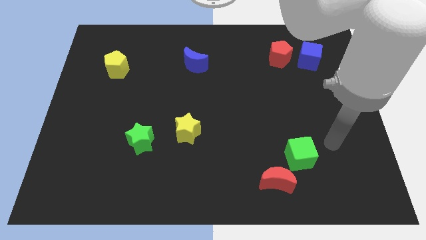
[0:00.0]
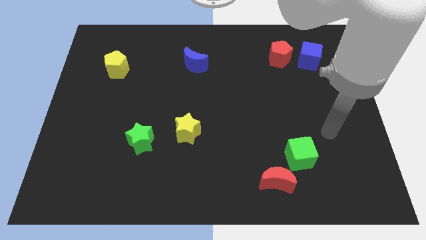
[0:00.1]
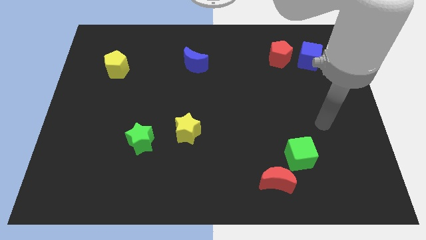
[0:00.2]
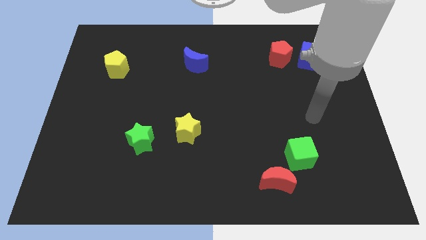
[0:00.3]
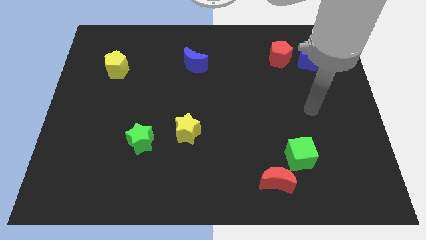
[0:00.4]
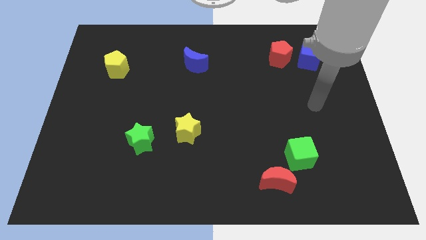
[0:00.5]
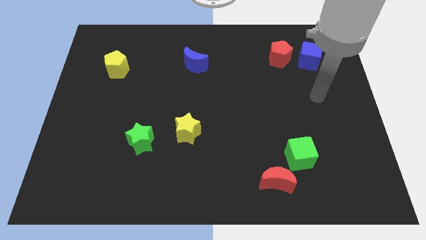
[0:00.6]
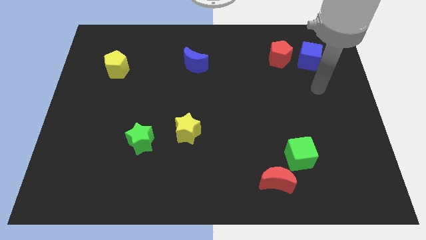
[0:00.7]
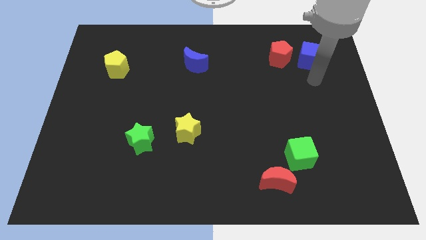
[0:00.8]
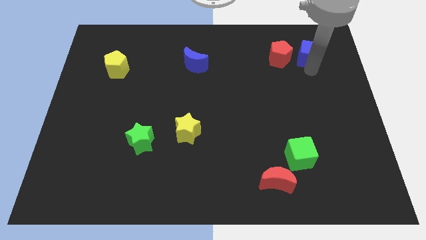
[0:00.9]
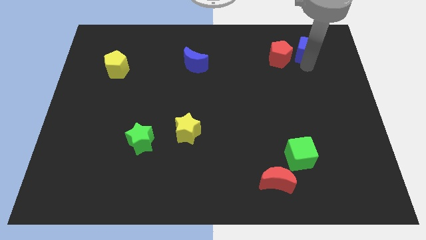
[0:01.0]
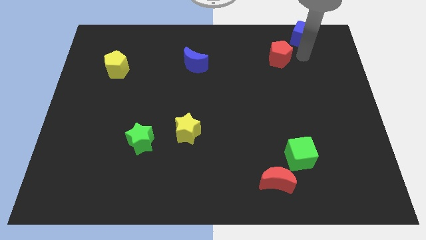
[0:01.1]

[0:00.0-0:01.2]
move the red pentagon away from the blue cube

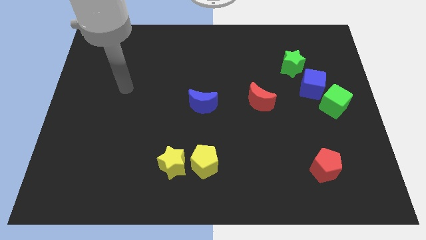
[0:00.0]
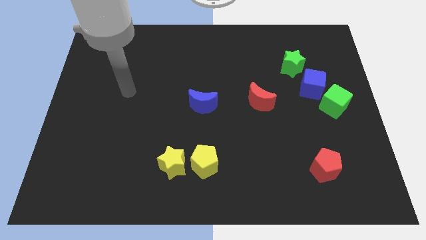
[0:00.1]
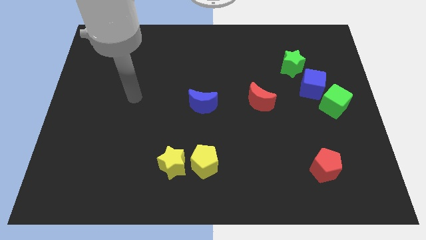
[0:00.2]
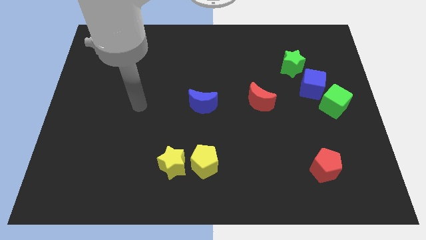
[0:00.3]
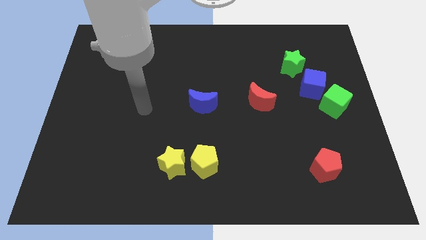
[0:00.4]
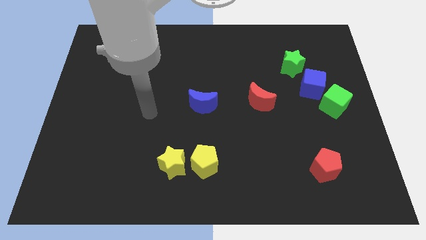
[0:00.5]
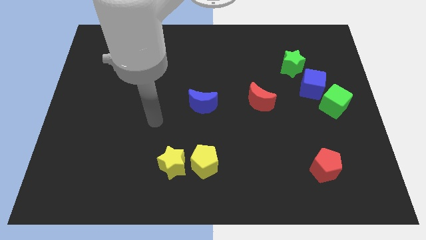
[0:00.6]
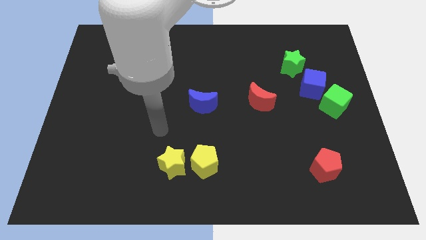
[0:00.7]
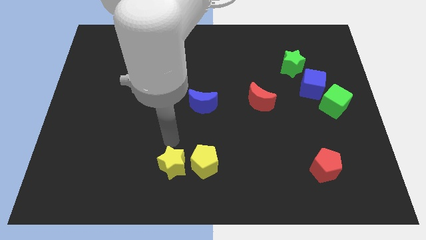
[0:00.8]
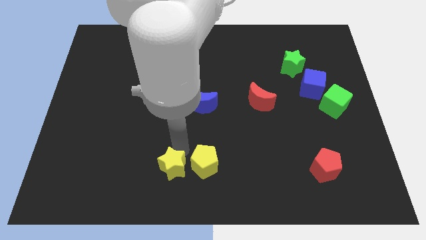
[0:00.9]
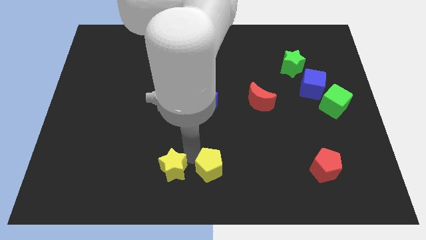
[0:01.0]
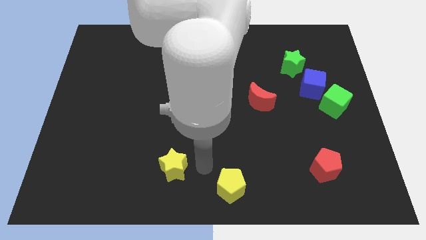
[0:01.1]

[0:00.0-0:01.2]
separate the yellow star from the yellow pentagon

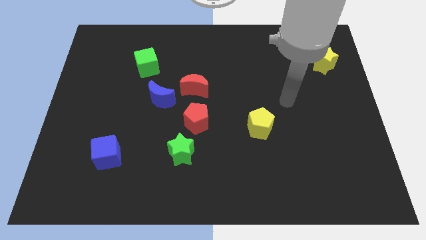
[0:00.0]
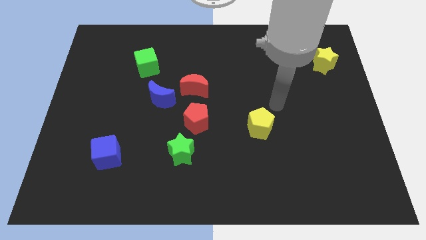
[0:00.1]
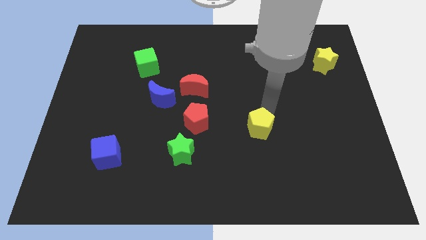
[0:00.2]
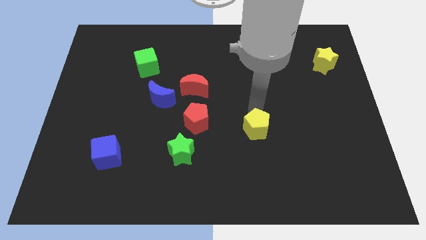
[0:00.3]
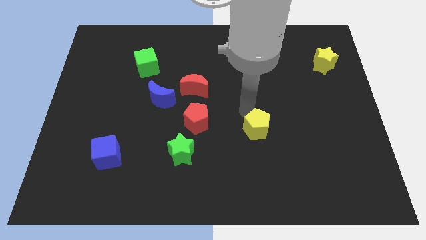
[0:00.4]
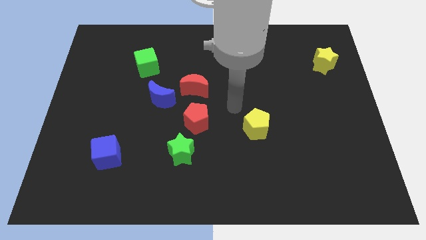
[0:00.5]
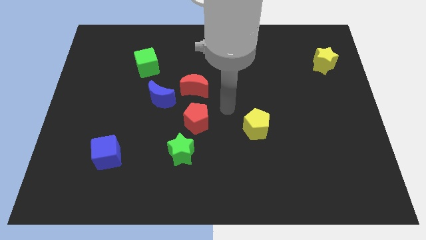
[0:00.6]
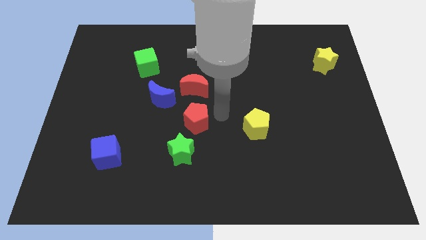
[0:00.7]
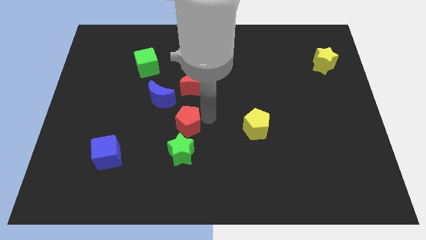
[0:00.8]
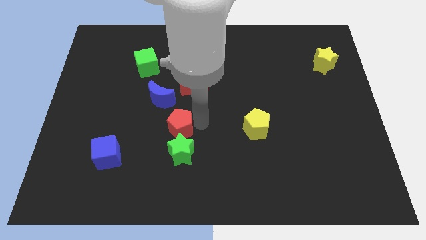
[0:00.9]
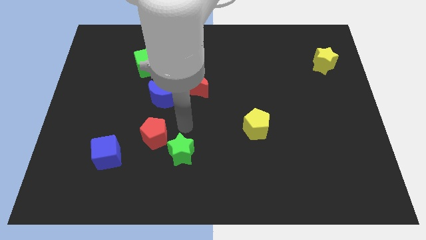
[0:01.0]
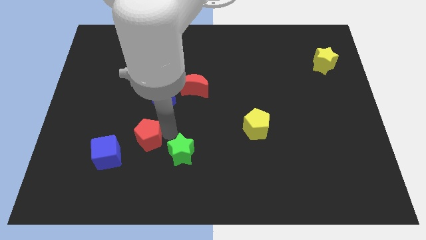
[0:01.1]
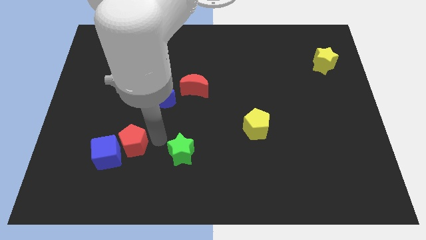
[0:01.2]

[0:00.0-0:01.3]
move the green star away from the red pentagon

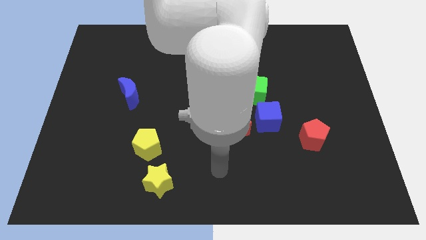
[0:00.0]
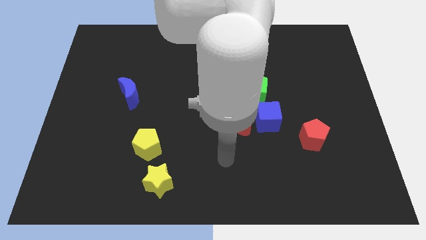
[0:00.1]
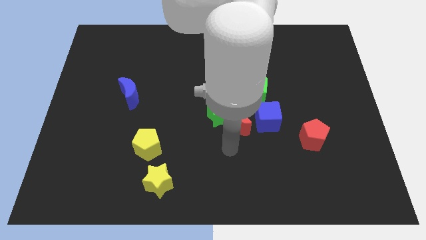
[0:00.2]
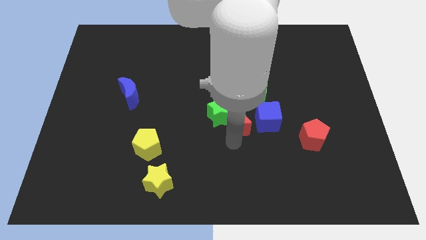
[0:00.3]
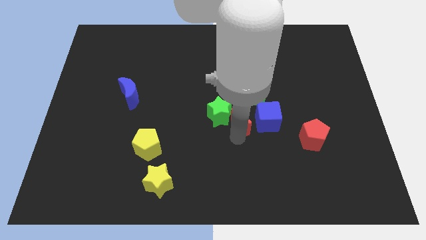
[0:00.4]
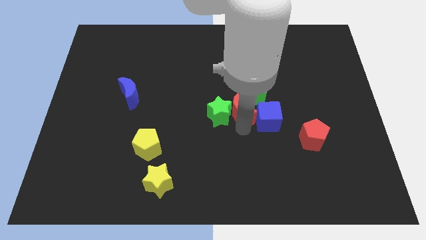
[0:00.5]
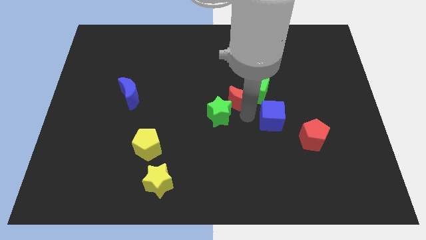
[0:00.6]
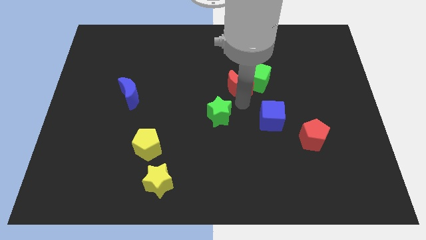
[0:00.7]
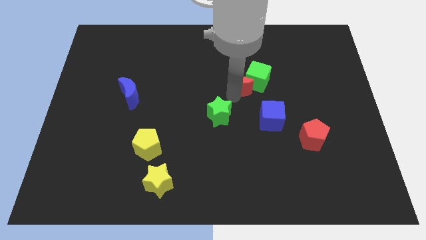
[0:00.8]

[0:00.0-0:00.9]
pull the green star apart from the red moon

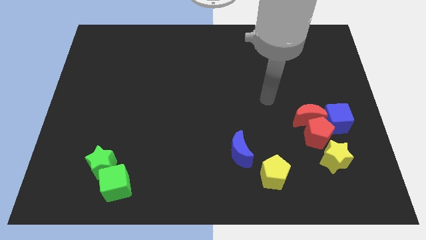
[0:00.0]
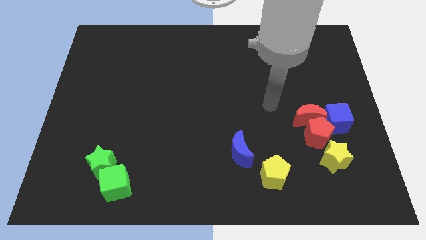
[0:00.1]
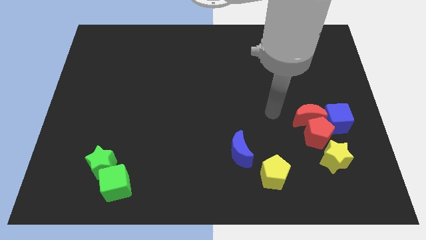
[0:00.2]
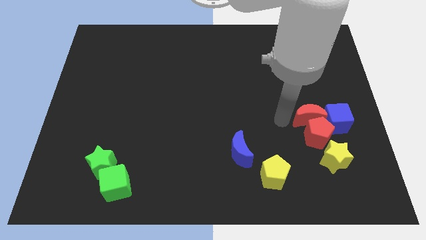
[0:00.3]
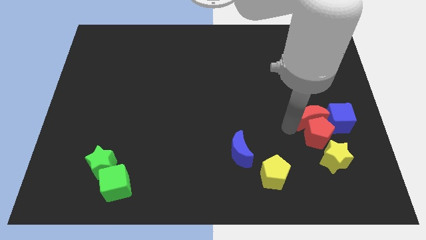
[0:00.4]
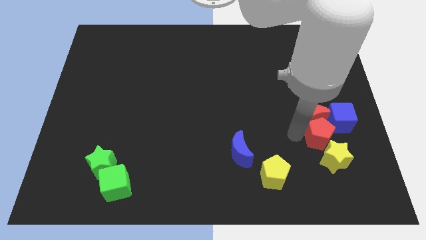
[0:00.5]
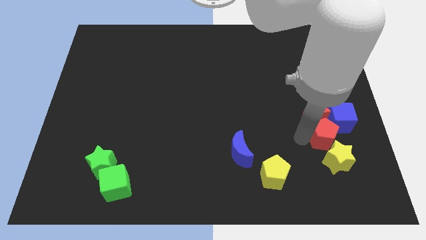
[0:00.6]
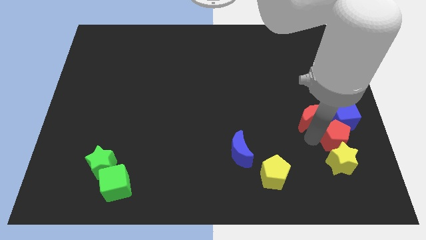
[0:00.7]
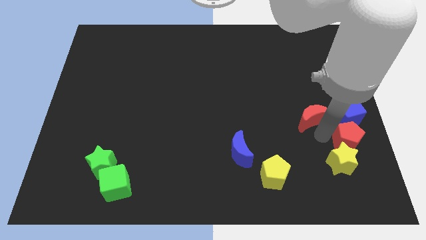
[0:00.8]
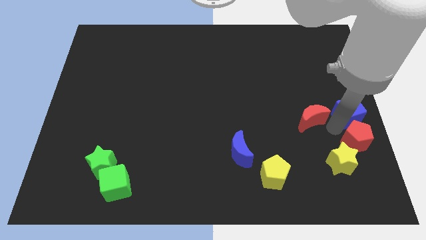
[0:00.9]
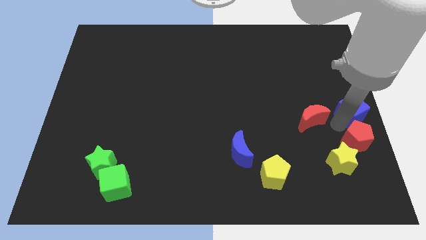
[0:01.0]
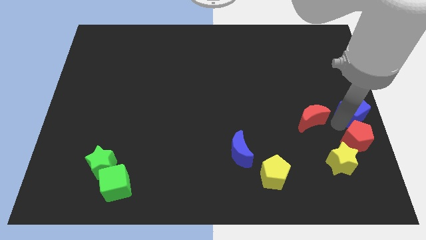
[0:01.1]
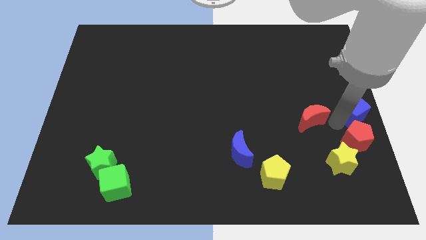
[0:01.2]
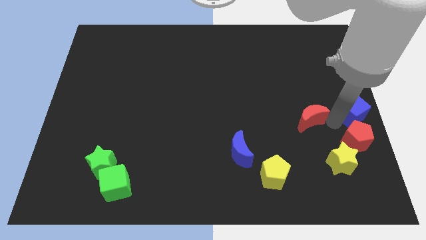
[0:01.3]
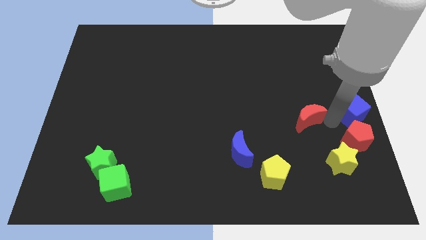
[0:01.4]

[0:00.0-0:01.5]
move the red moon away from the red pentagon and blue cube

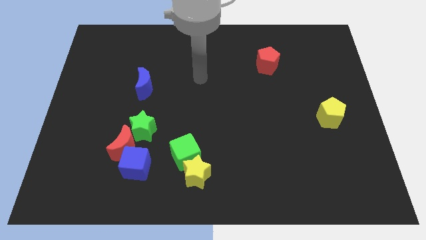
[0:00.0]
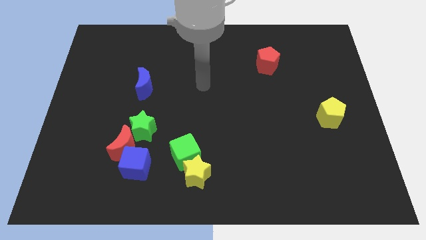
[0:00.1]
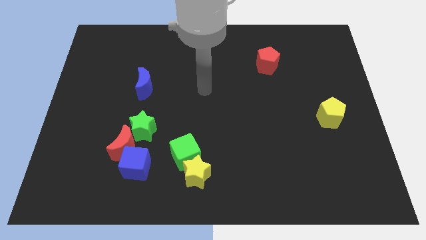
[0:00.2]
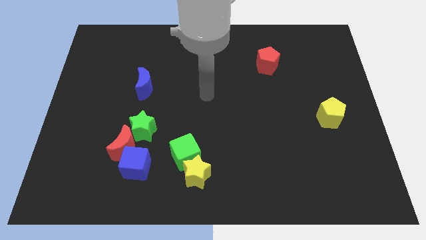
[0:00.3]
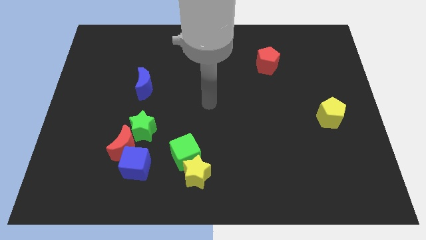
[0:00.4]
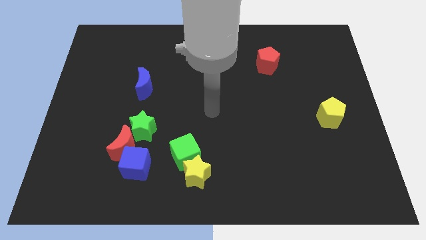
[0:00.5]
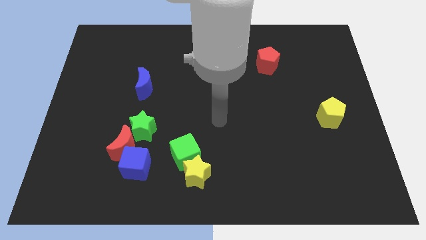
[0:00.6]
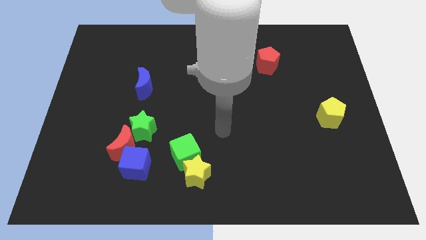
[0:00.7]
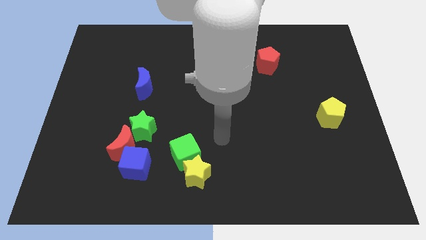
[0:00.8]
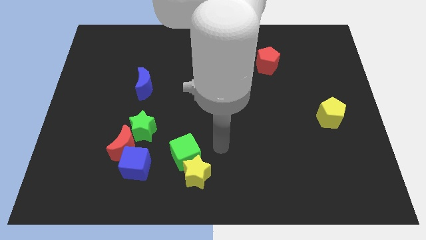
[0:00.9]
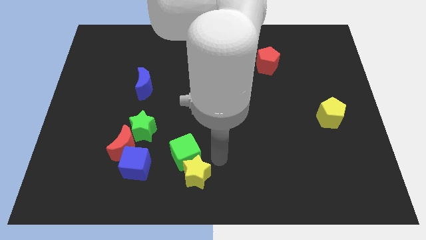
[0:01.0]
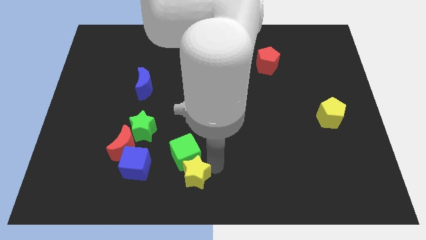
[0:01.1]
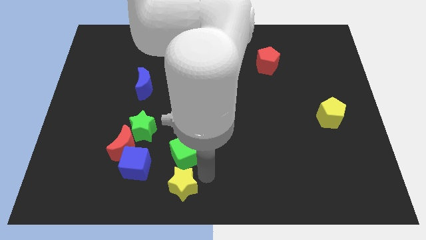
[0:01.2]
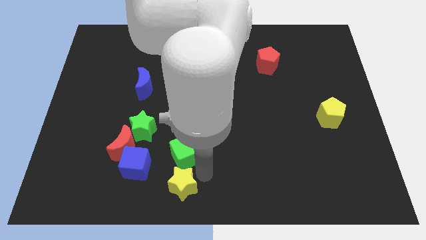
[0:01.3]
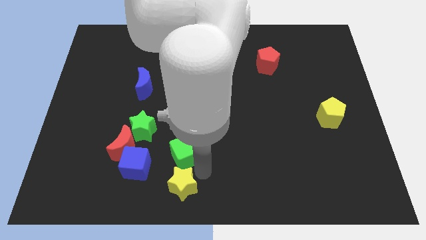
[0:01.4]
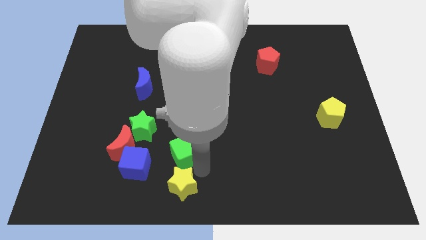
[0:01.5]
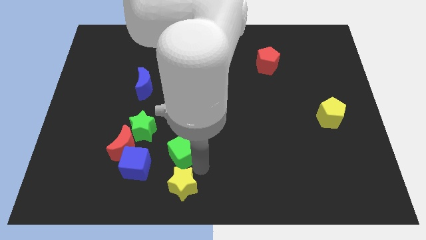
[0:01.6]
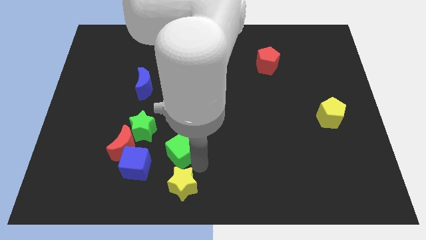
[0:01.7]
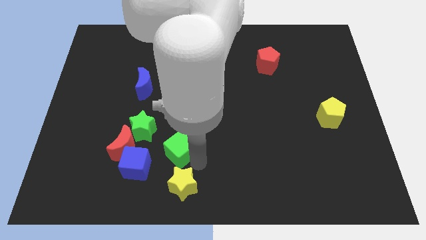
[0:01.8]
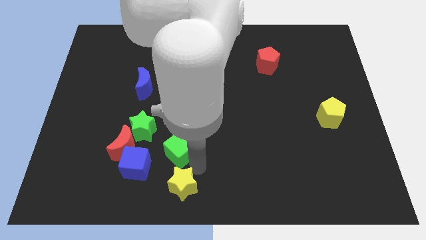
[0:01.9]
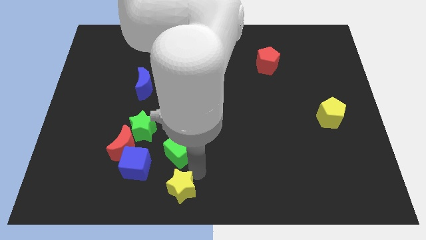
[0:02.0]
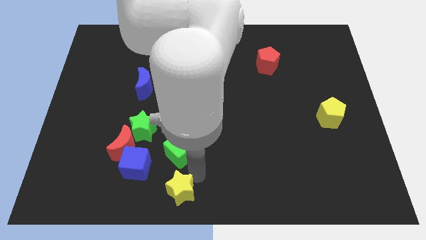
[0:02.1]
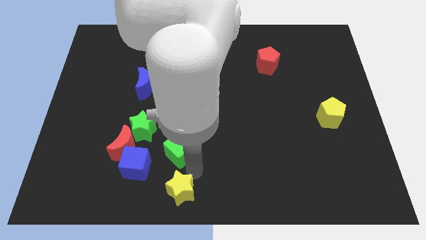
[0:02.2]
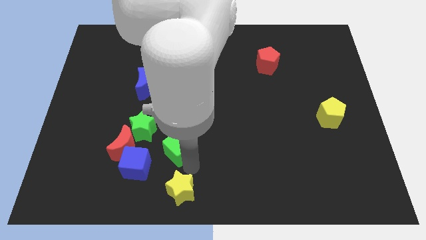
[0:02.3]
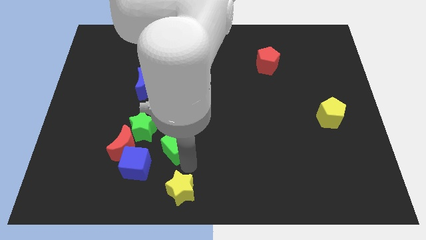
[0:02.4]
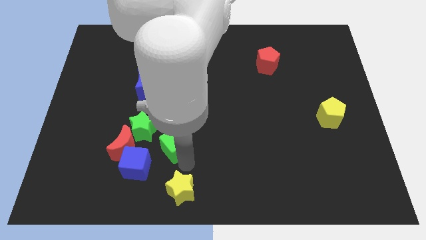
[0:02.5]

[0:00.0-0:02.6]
separate the green cube from the yellow star

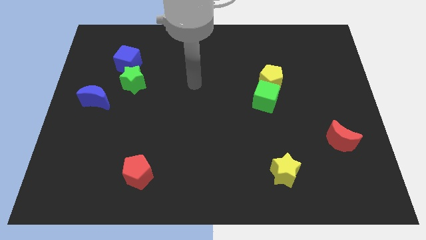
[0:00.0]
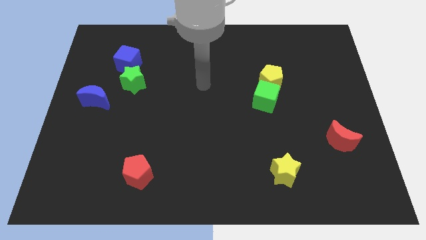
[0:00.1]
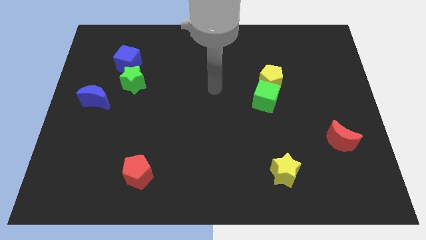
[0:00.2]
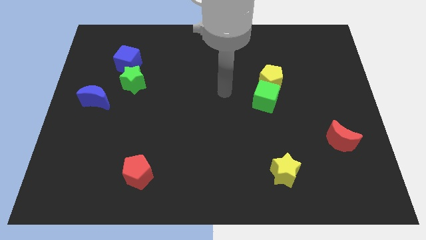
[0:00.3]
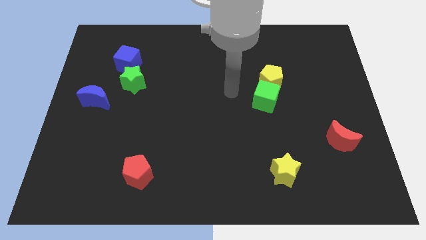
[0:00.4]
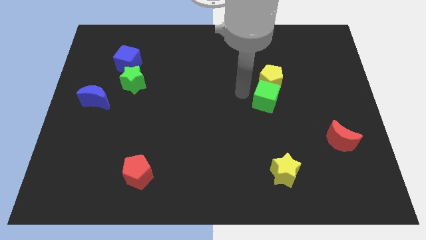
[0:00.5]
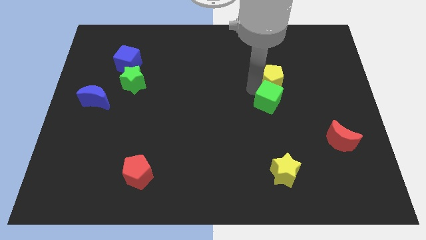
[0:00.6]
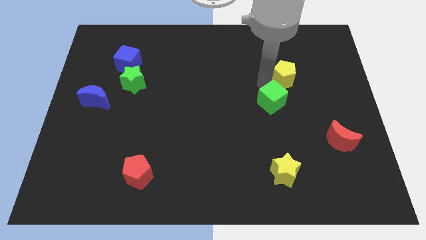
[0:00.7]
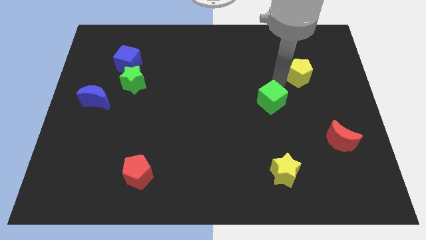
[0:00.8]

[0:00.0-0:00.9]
separate the green cube from the yellow pentagon
